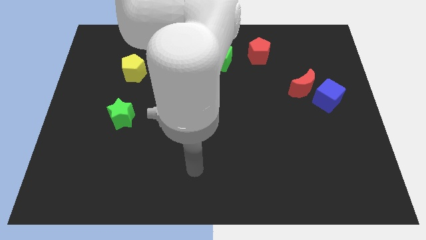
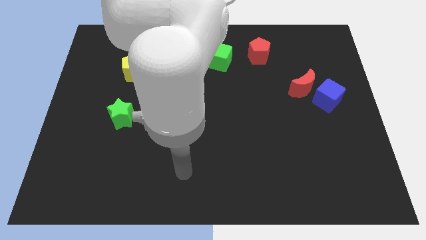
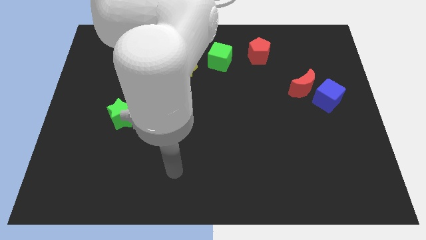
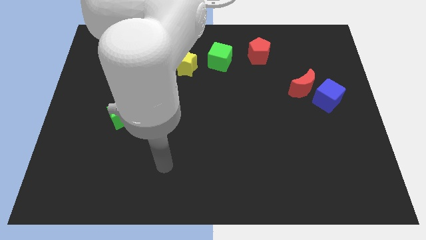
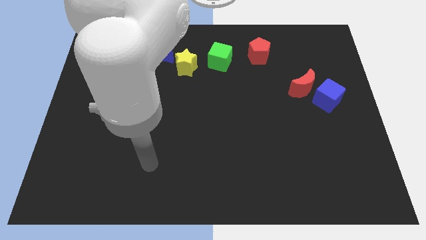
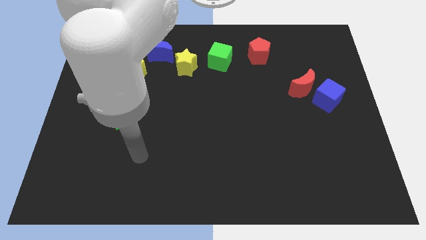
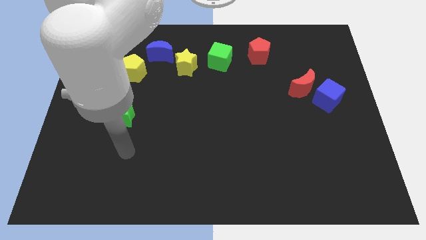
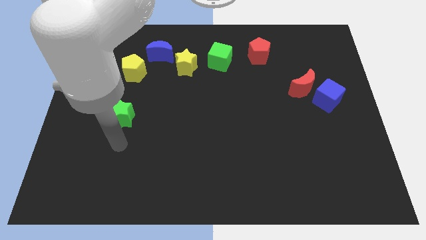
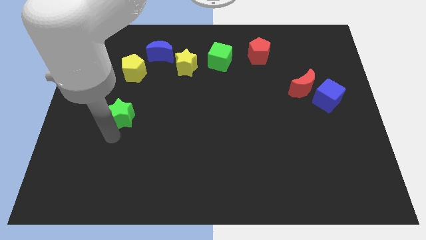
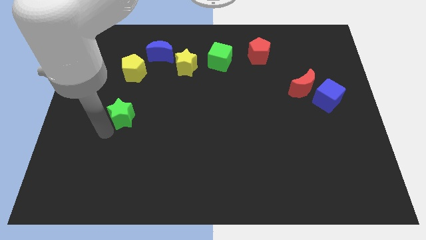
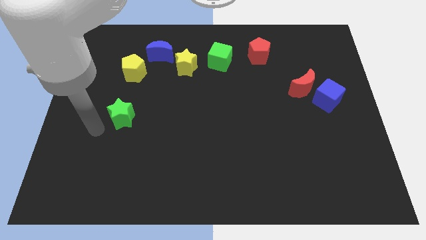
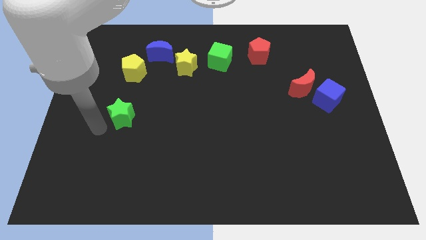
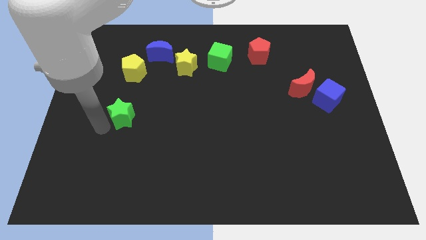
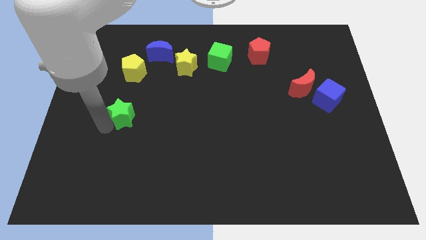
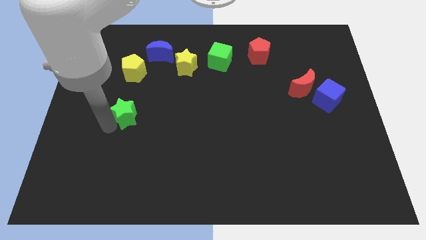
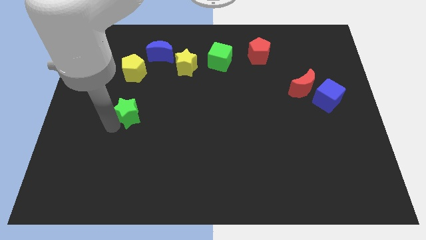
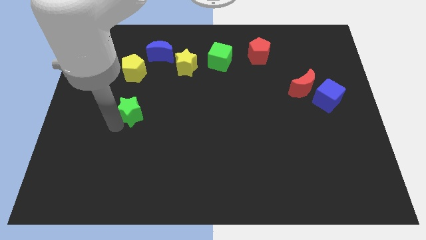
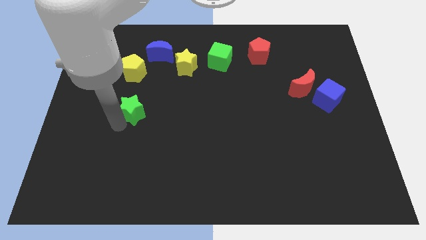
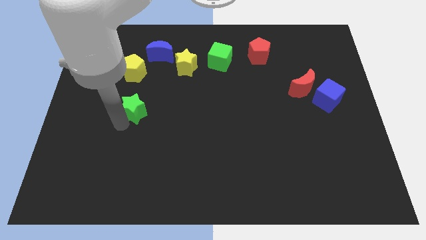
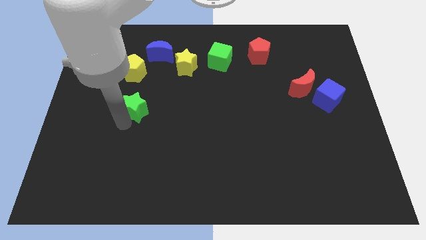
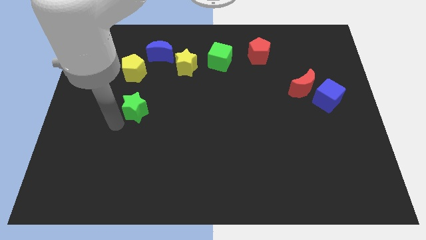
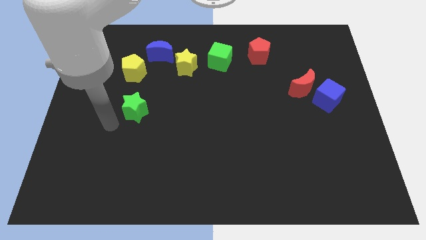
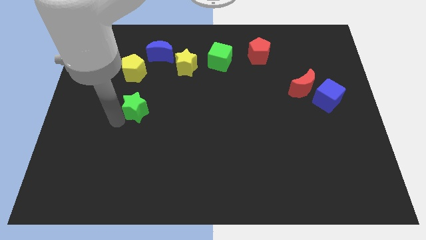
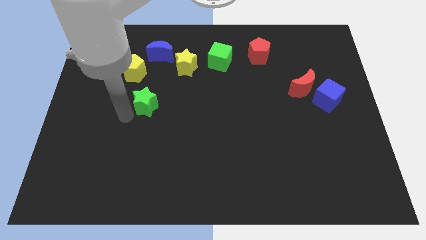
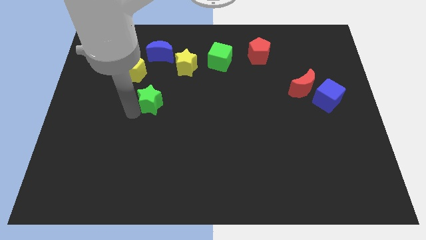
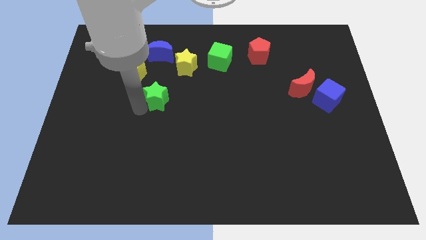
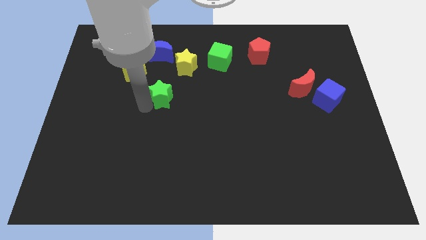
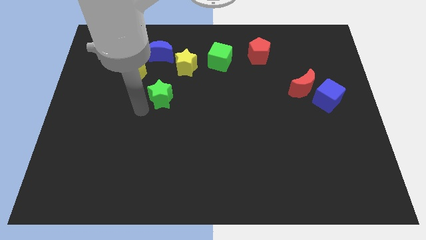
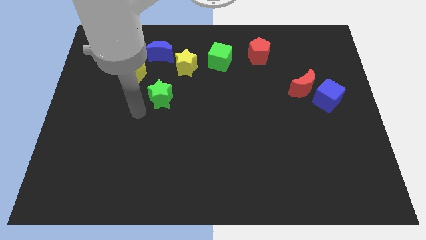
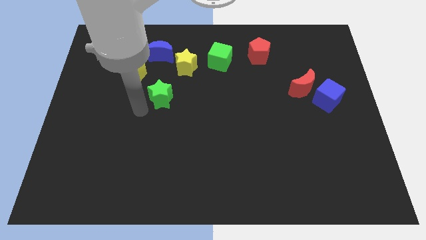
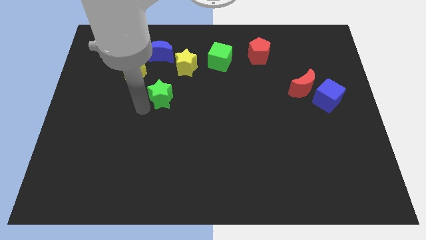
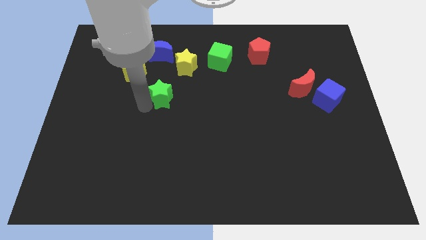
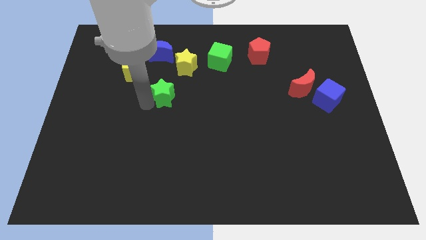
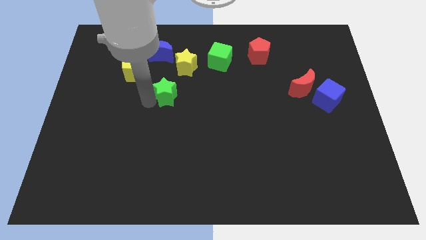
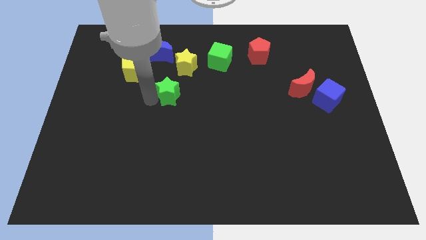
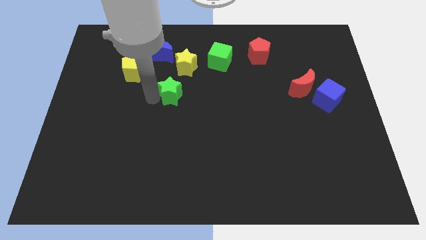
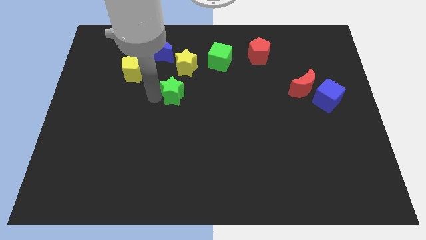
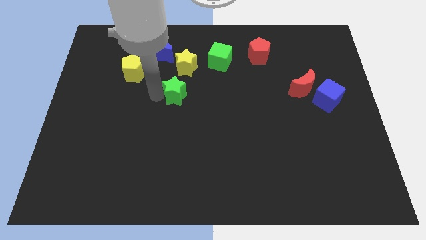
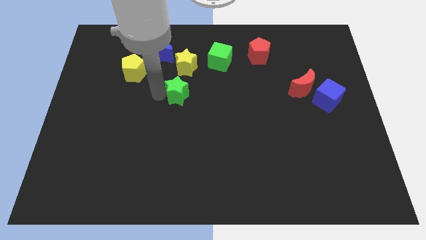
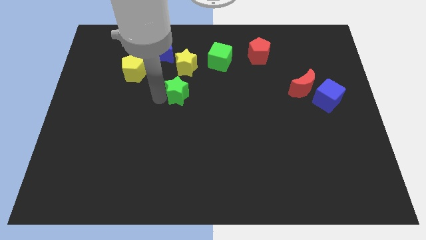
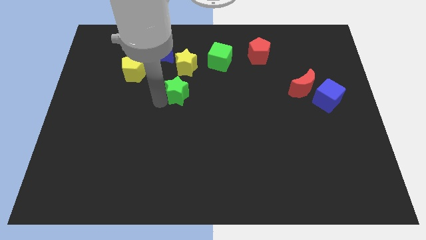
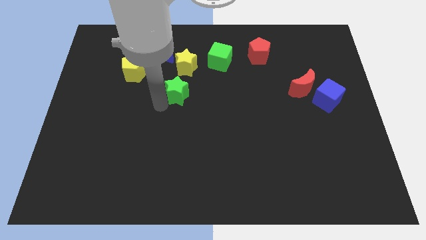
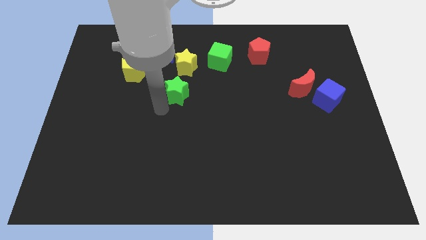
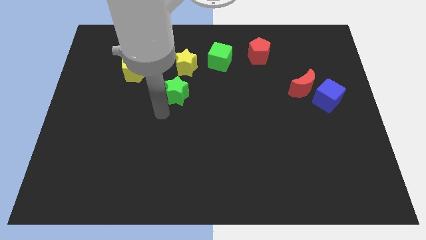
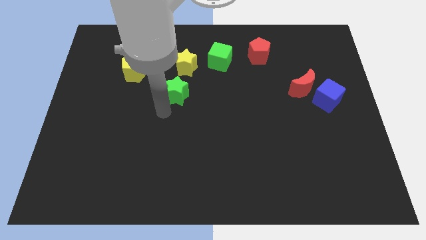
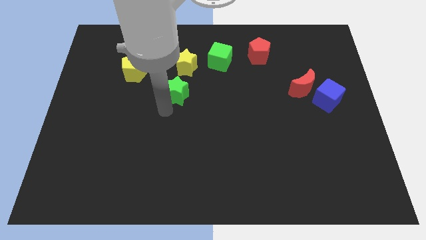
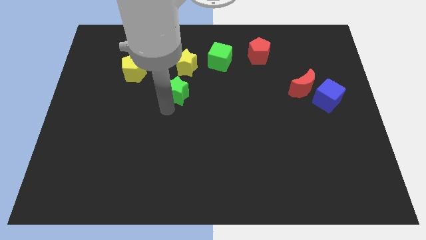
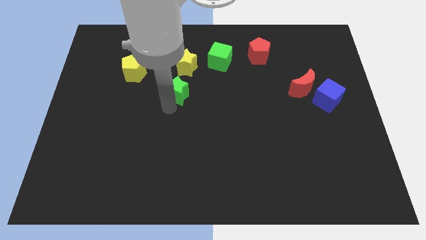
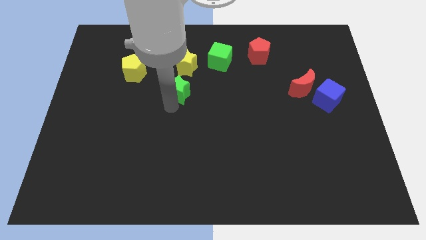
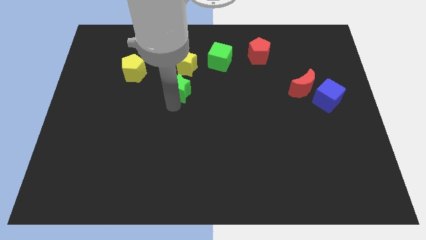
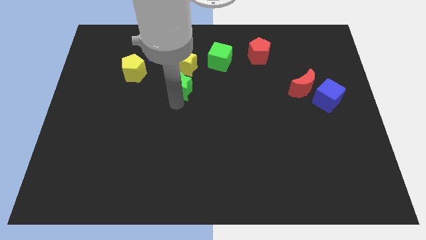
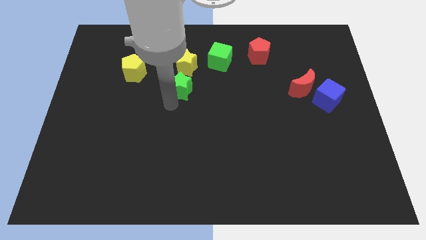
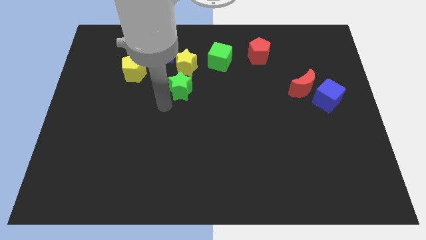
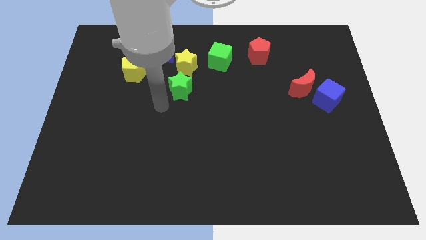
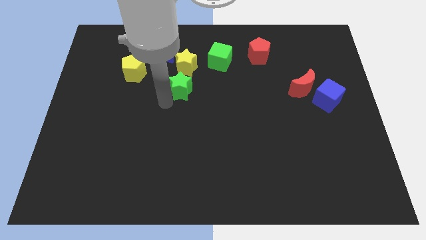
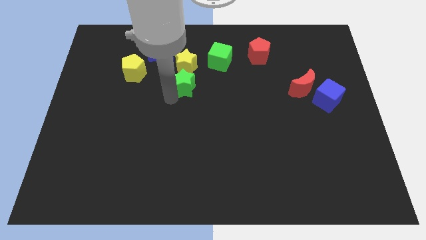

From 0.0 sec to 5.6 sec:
put the green star to the bottom left side of the green cube

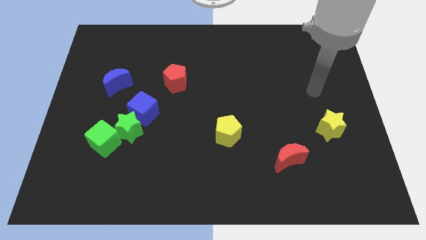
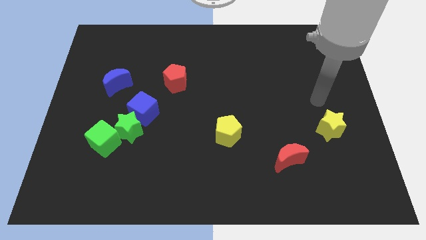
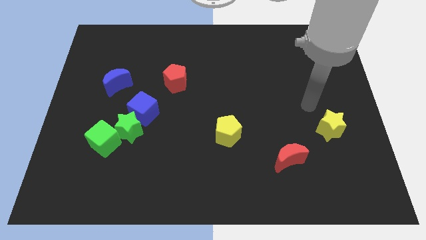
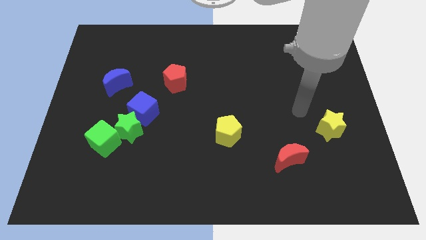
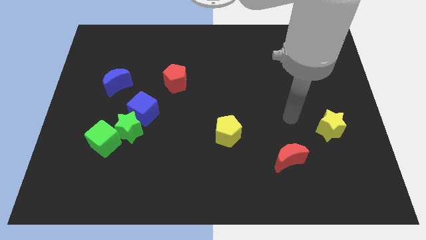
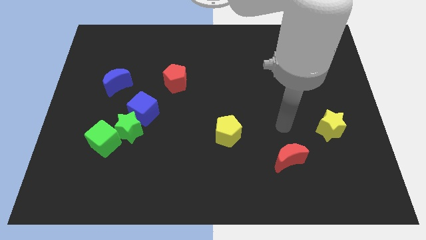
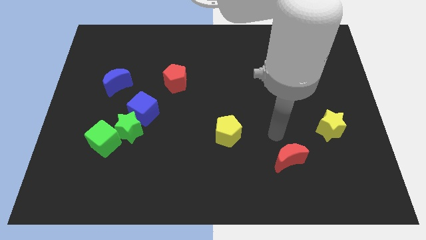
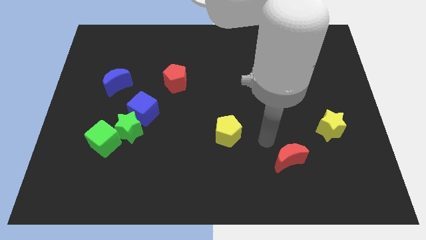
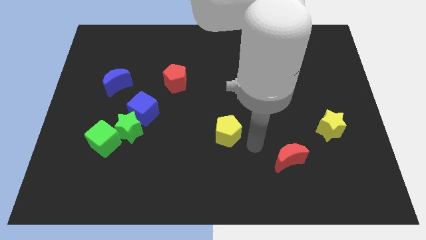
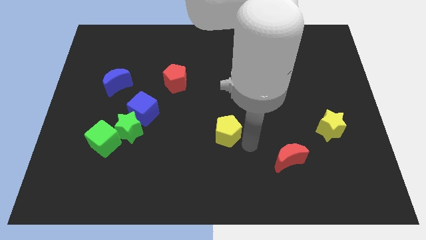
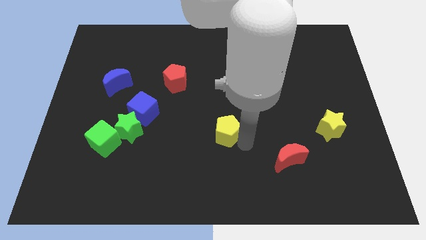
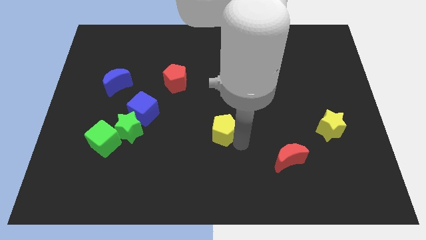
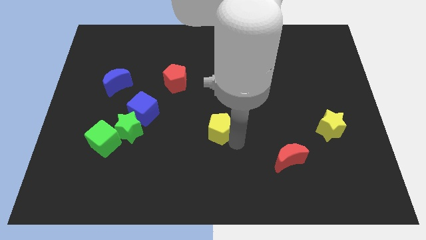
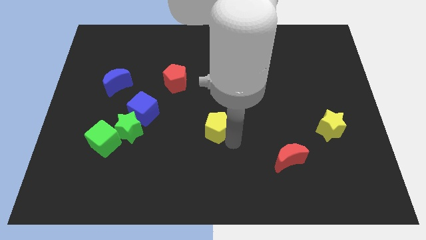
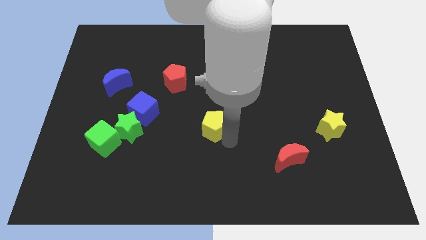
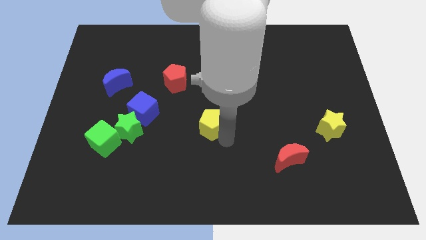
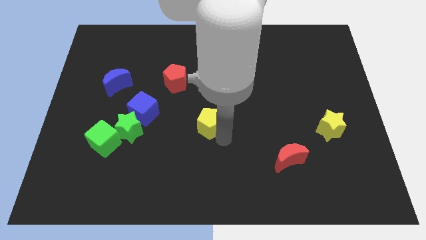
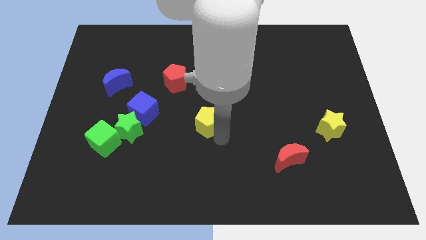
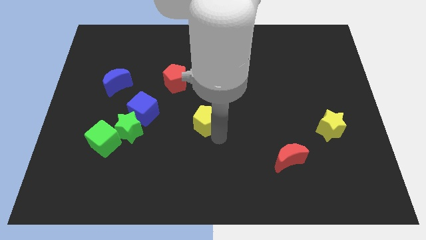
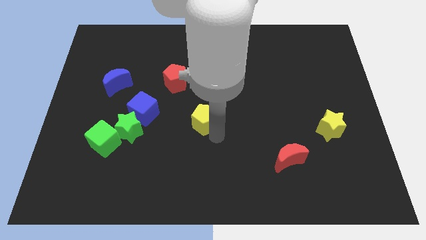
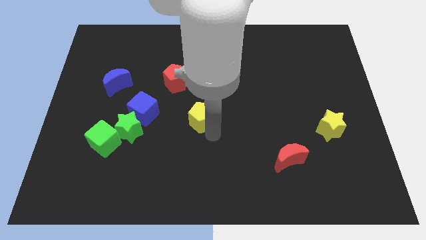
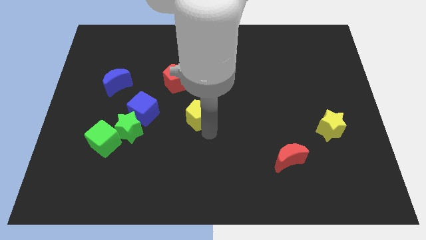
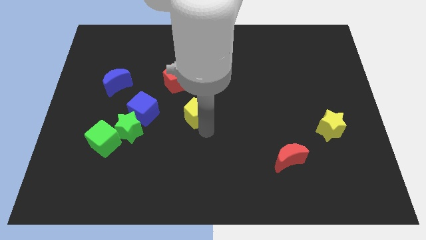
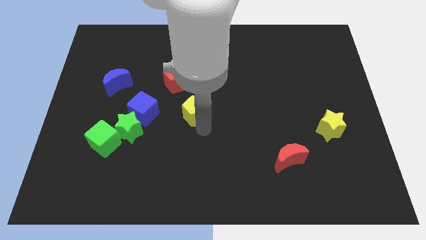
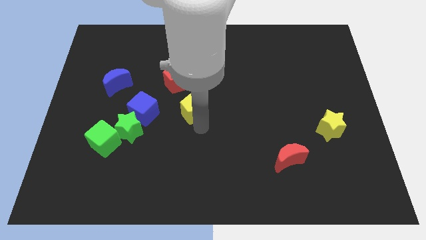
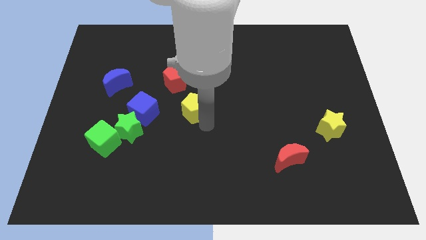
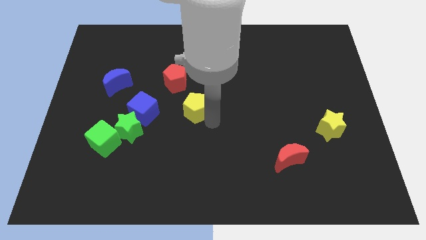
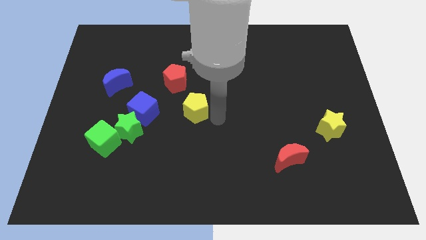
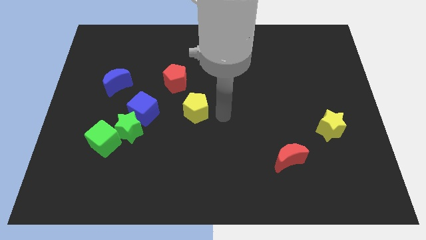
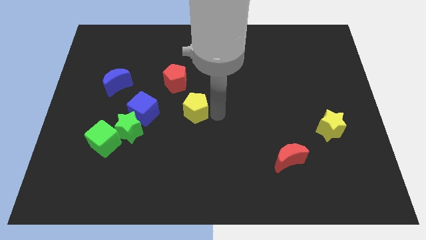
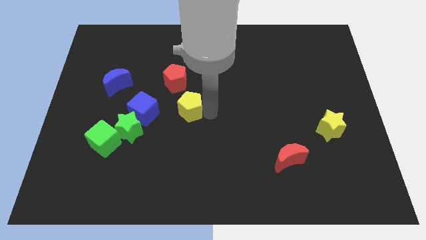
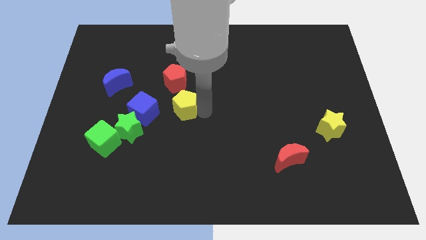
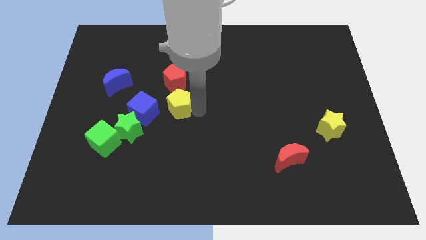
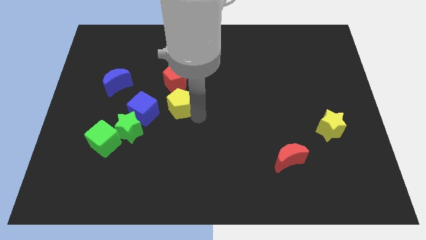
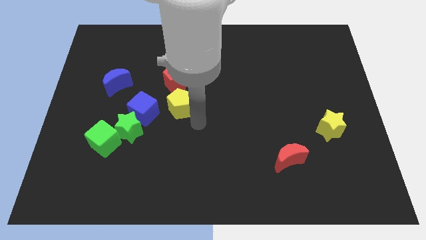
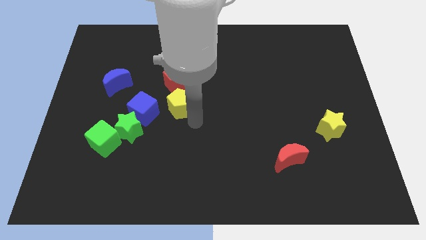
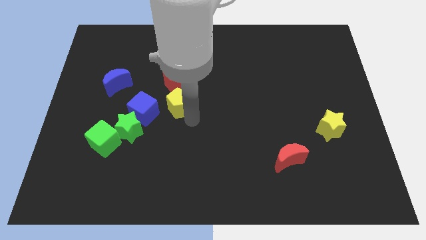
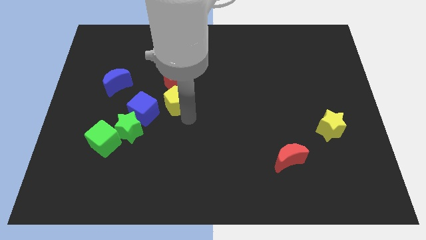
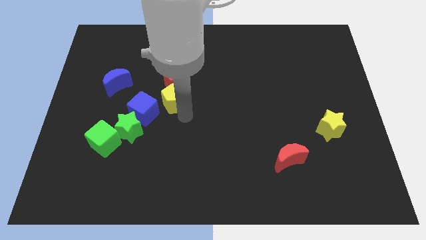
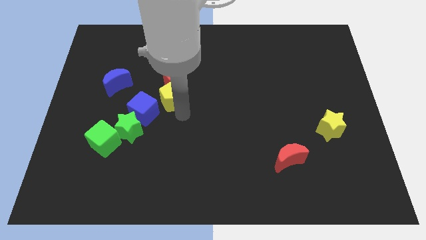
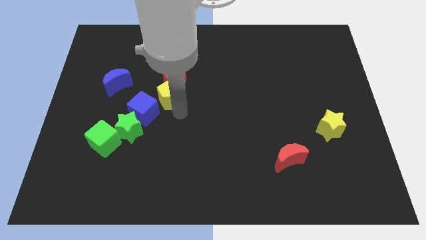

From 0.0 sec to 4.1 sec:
put the yellow pentagon to the right side of the blue moon
